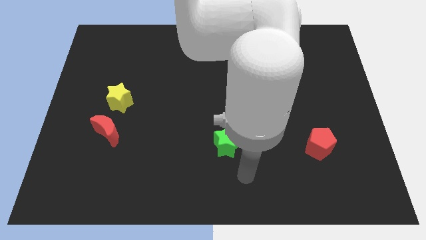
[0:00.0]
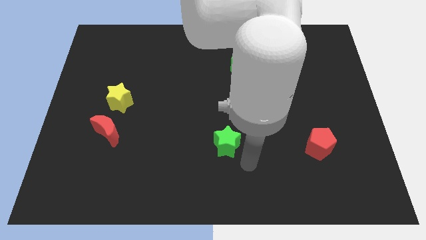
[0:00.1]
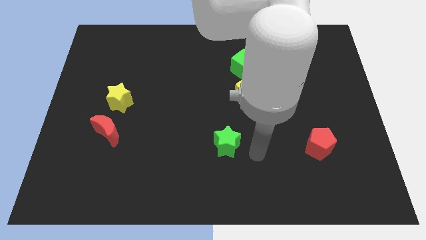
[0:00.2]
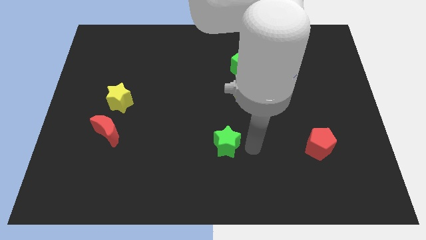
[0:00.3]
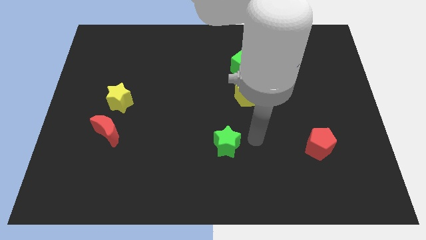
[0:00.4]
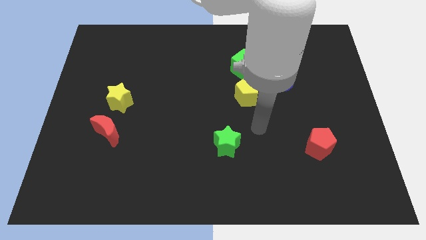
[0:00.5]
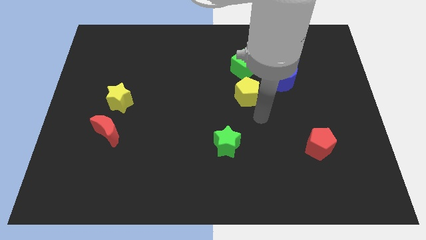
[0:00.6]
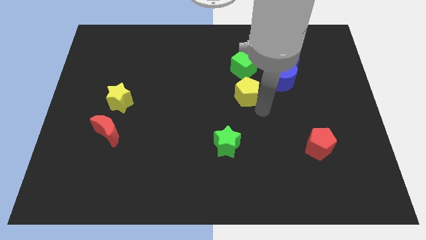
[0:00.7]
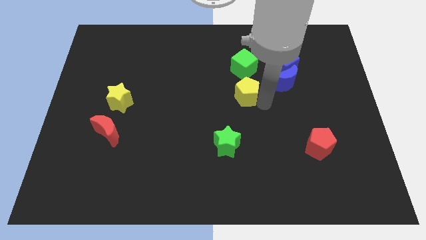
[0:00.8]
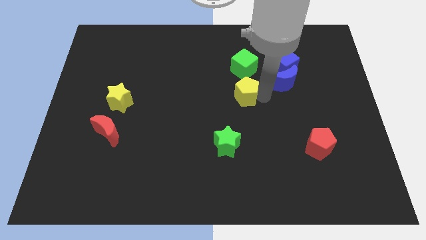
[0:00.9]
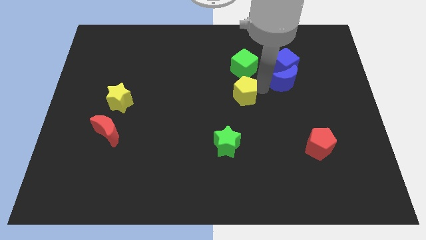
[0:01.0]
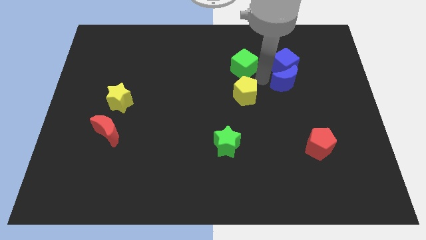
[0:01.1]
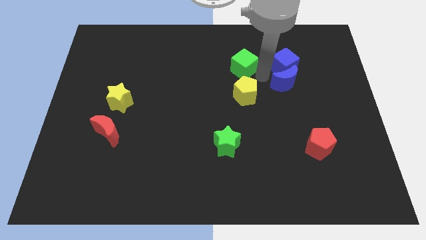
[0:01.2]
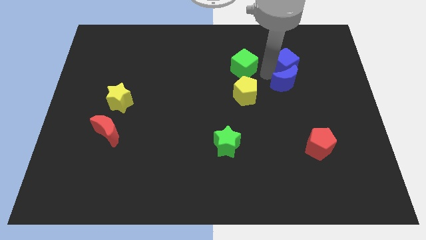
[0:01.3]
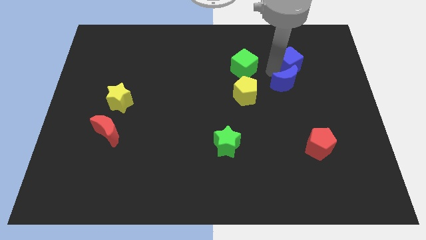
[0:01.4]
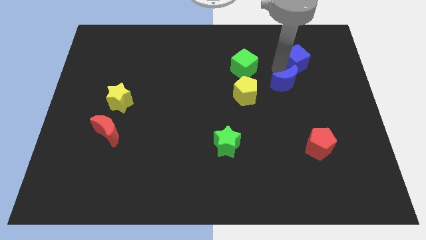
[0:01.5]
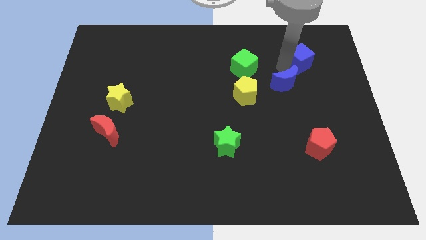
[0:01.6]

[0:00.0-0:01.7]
separate the blue cube from the blue moon and green cube

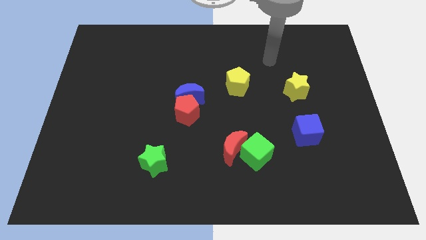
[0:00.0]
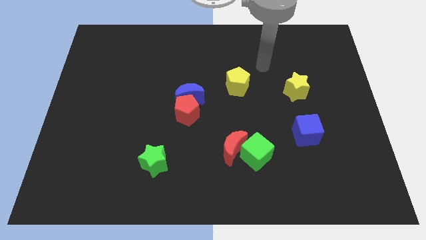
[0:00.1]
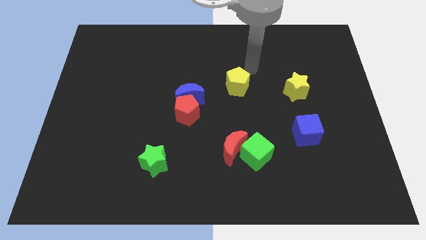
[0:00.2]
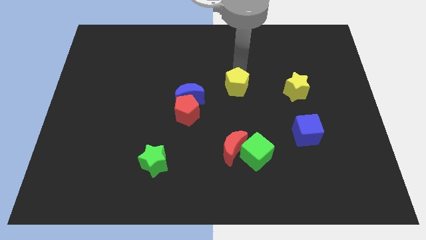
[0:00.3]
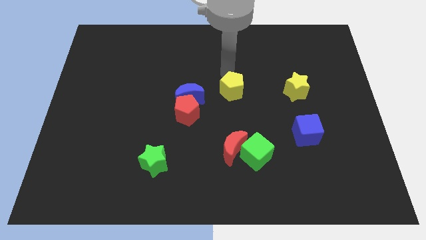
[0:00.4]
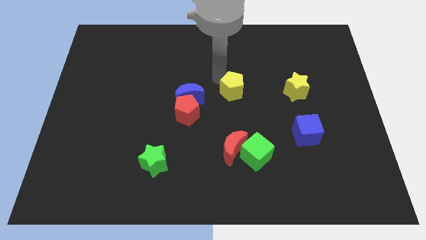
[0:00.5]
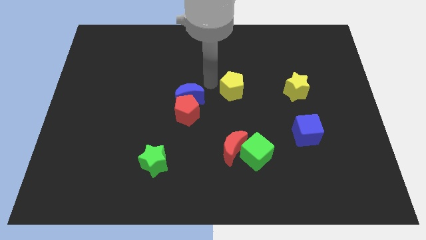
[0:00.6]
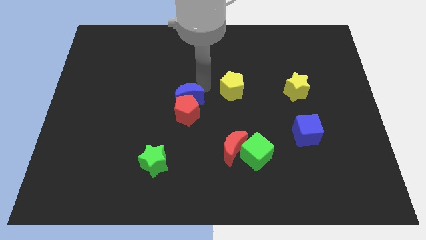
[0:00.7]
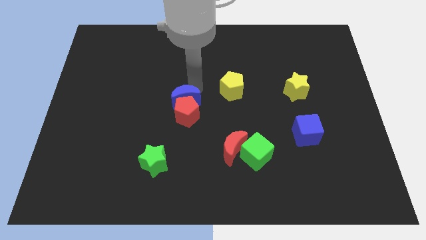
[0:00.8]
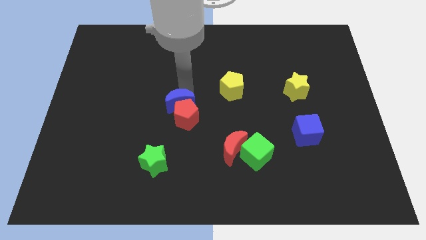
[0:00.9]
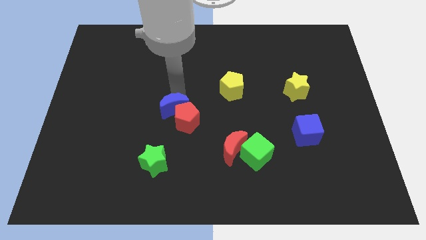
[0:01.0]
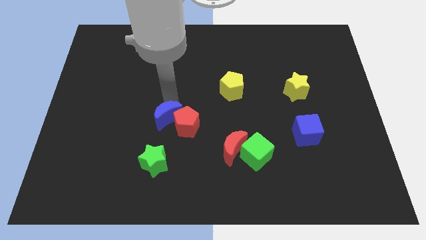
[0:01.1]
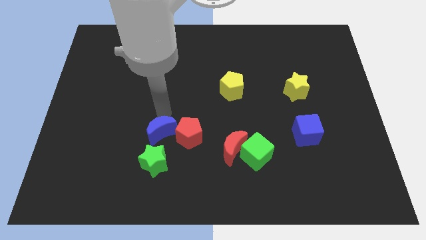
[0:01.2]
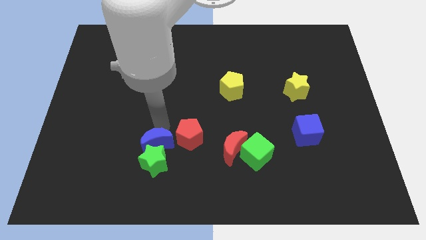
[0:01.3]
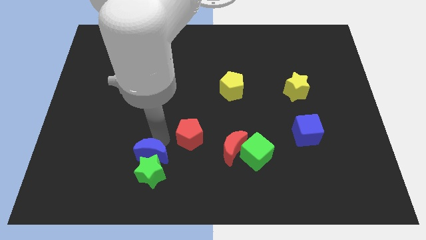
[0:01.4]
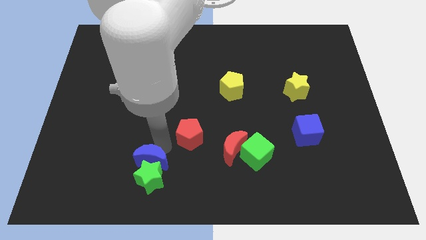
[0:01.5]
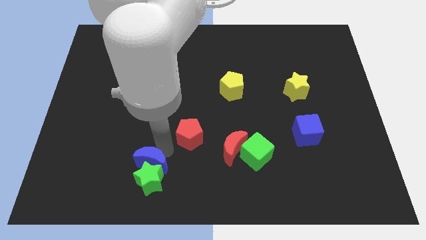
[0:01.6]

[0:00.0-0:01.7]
separate the red pentagon from the blue moon

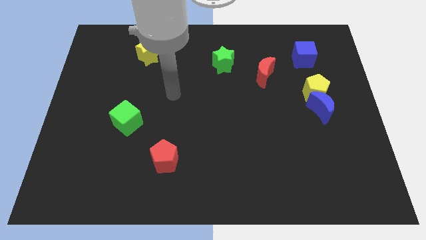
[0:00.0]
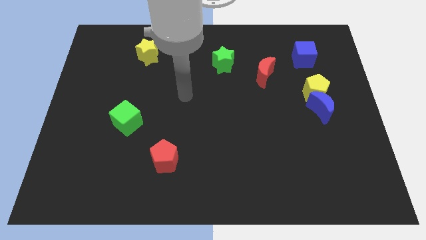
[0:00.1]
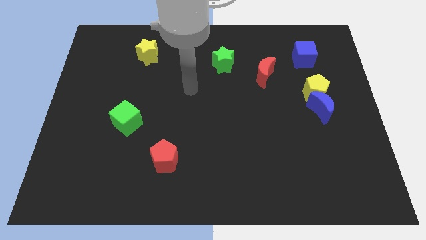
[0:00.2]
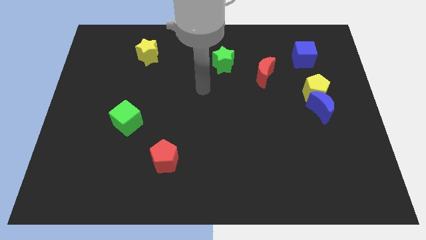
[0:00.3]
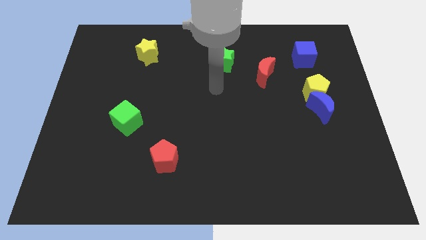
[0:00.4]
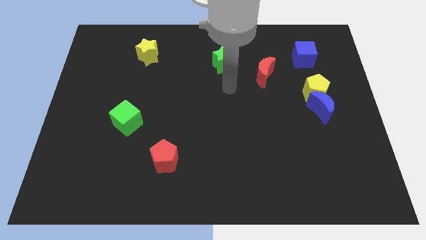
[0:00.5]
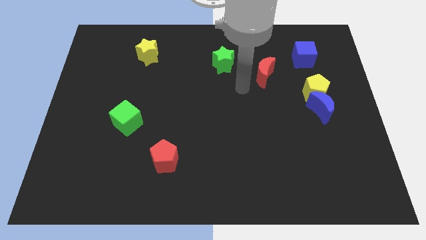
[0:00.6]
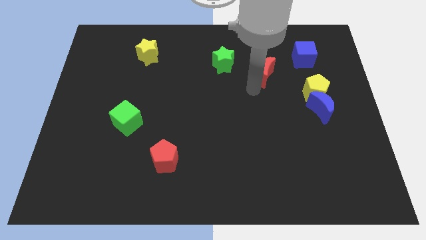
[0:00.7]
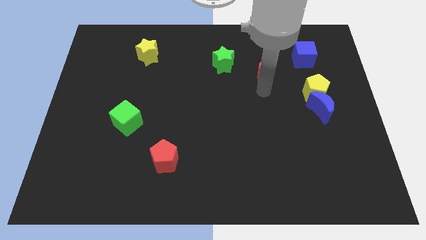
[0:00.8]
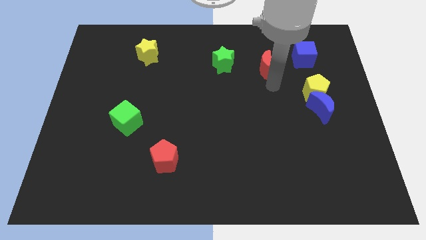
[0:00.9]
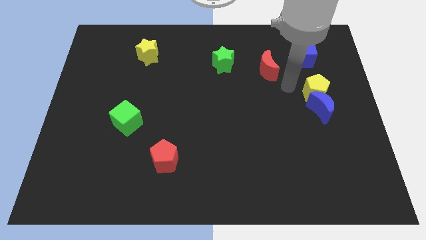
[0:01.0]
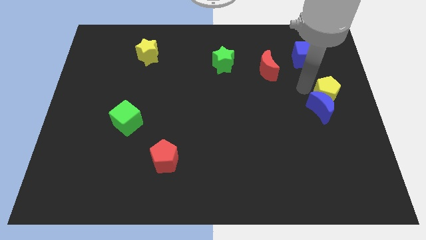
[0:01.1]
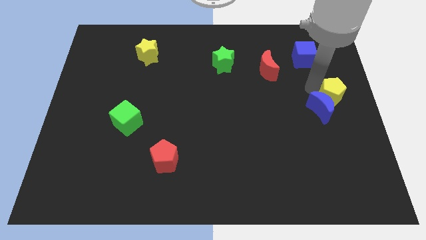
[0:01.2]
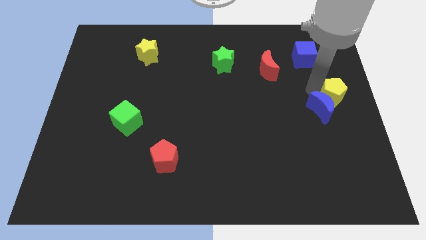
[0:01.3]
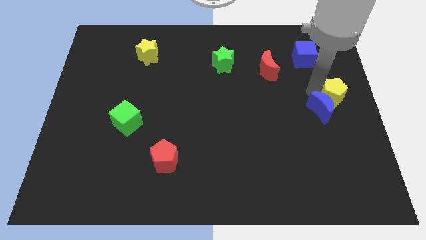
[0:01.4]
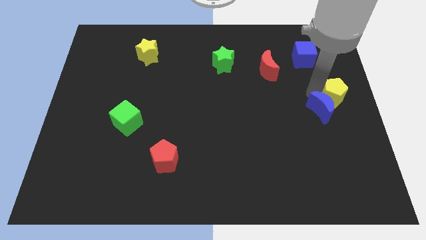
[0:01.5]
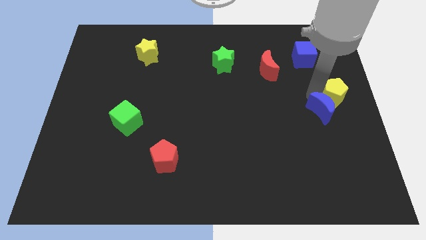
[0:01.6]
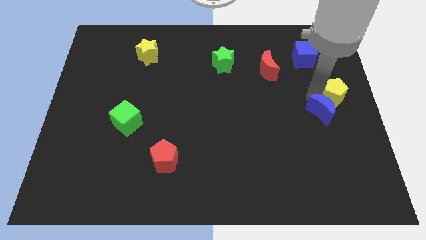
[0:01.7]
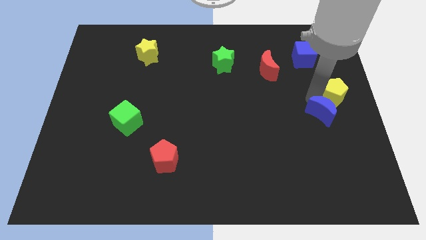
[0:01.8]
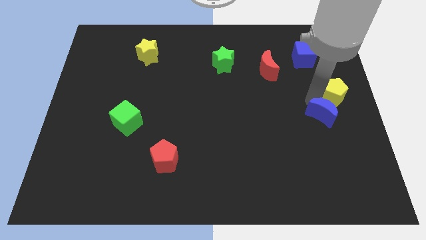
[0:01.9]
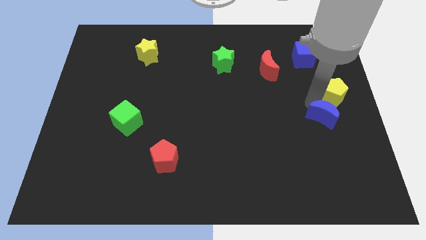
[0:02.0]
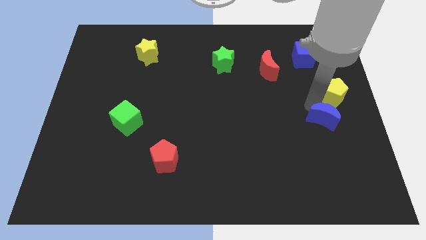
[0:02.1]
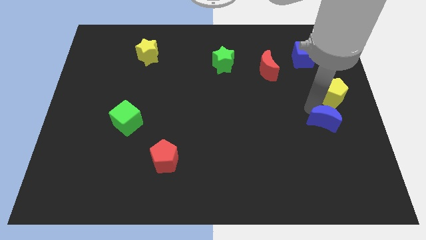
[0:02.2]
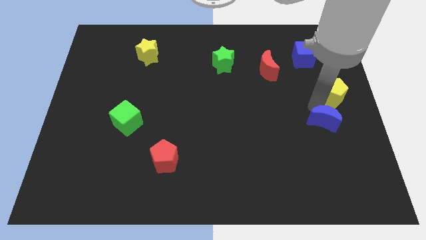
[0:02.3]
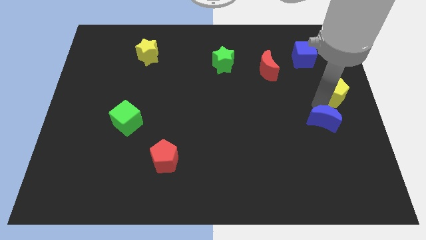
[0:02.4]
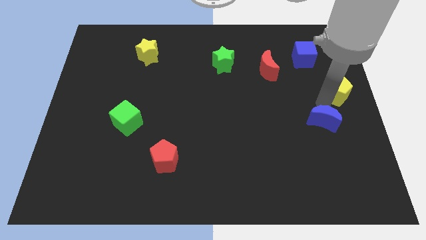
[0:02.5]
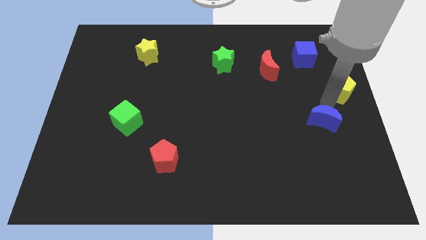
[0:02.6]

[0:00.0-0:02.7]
separate the blue moon from the yellow pentagon

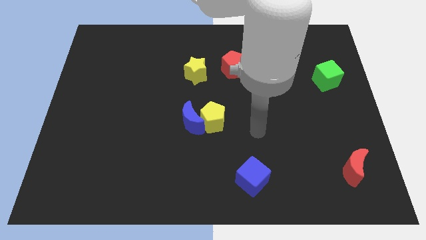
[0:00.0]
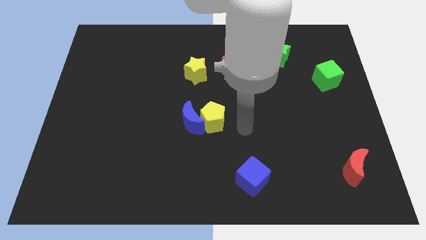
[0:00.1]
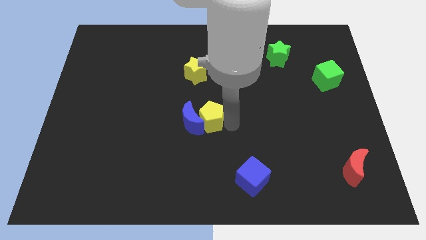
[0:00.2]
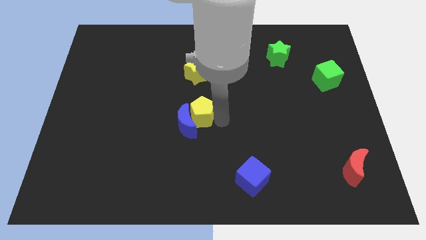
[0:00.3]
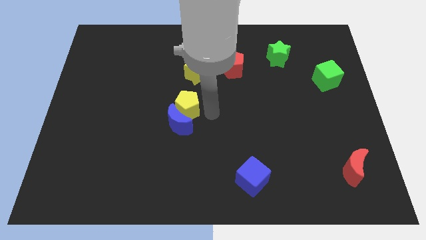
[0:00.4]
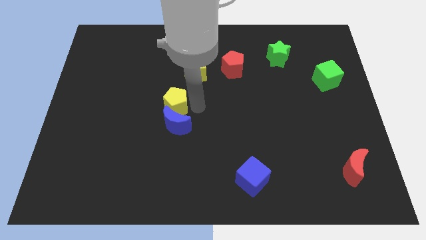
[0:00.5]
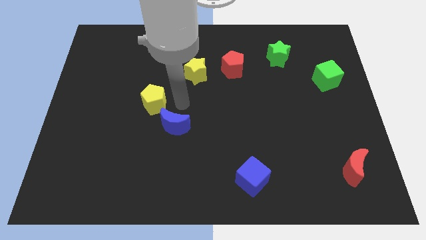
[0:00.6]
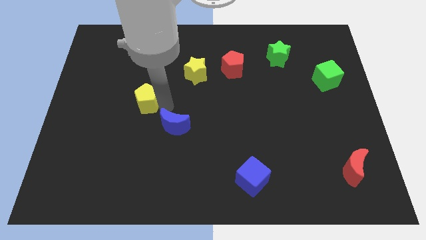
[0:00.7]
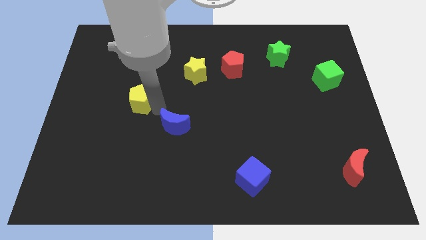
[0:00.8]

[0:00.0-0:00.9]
move the blue moon away from the yellow pentagon

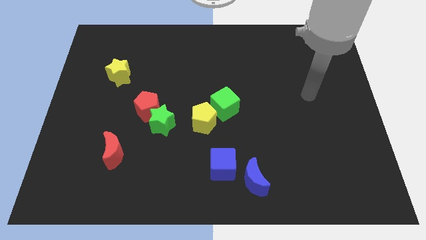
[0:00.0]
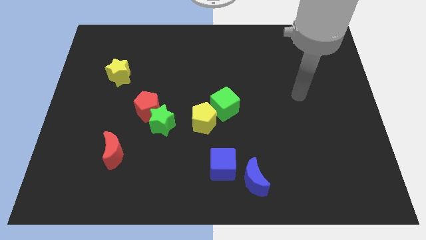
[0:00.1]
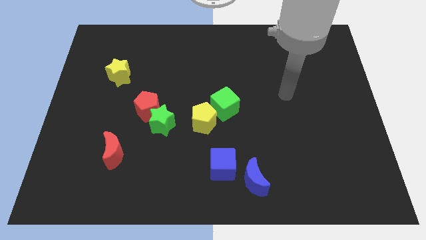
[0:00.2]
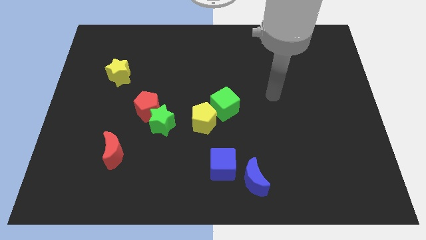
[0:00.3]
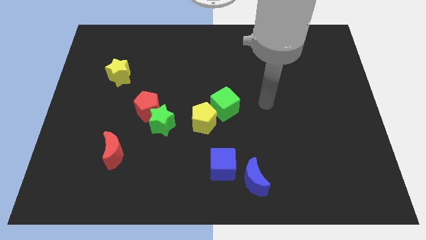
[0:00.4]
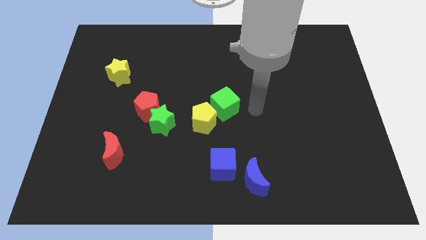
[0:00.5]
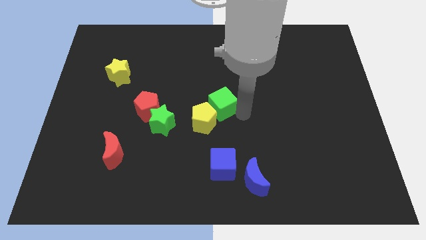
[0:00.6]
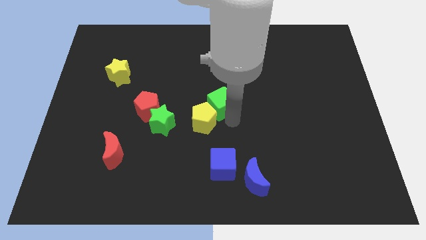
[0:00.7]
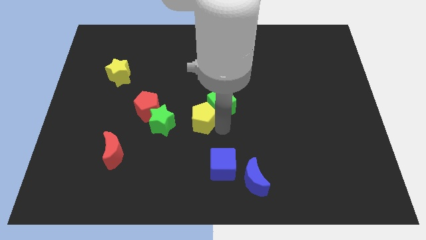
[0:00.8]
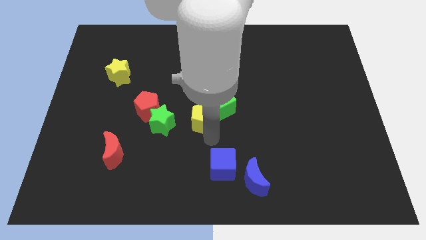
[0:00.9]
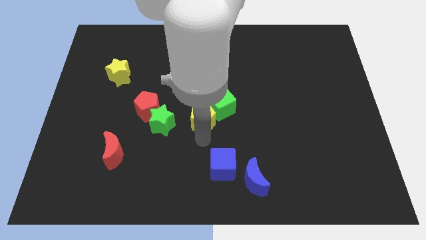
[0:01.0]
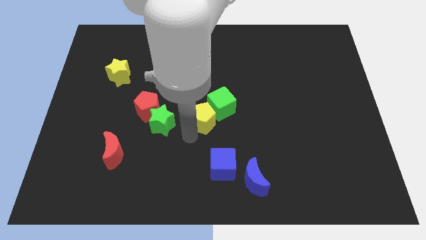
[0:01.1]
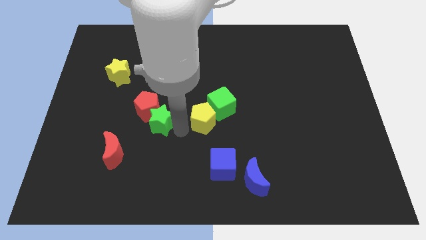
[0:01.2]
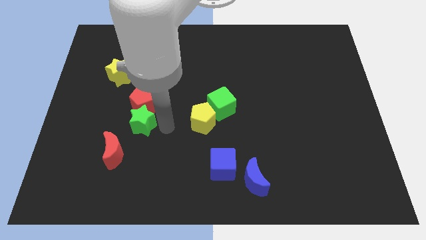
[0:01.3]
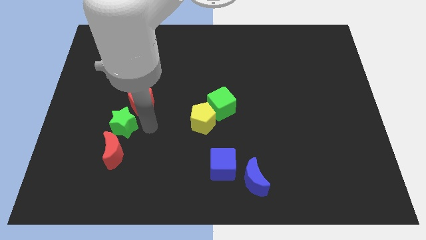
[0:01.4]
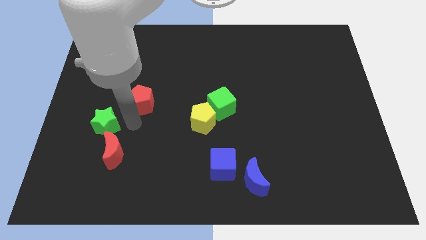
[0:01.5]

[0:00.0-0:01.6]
move the red pentagon away from the green star

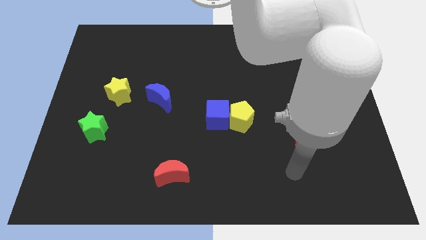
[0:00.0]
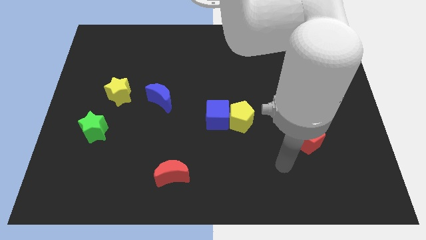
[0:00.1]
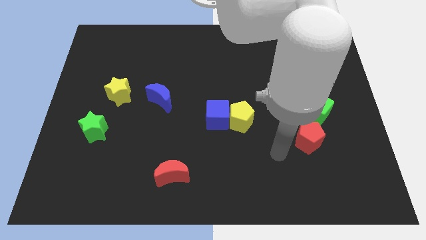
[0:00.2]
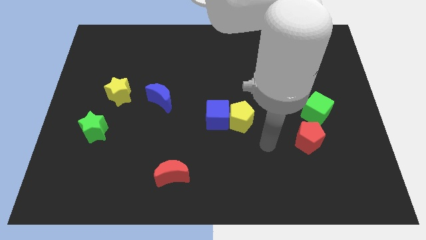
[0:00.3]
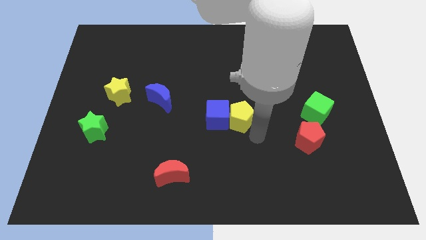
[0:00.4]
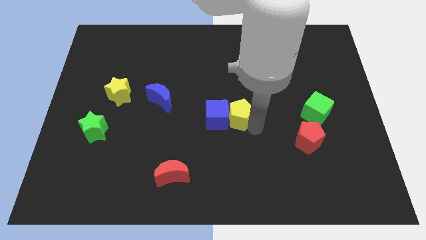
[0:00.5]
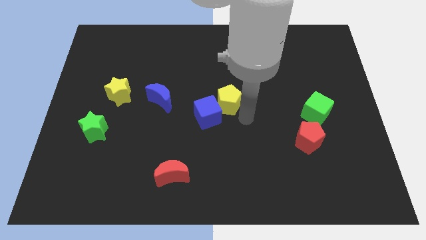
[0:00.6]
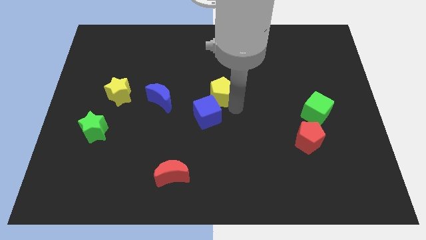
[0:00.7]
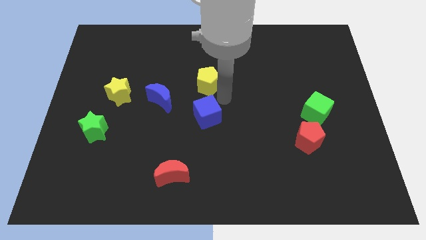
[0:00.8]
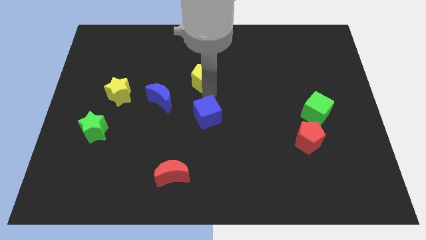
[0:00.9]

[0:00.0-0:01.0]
separate the blue cube from the yellow pentagon
